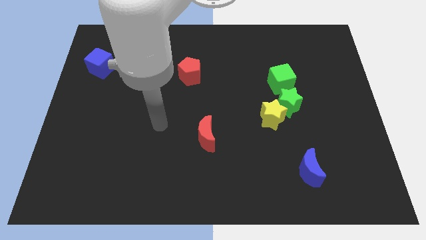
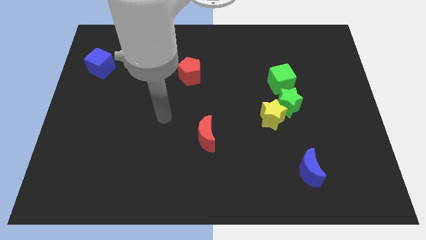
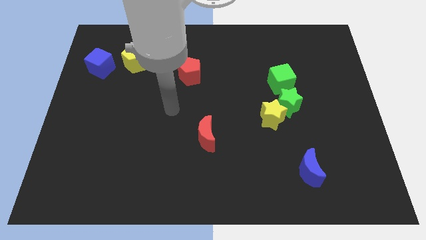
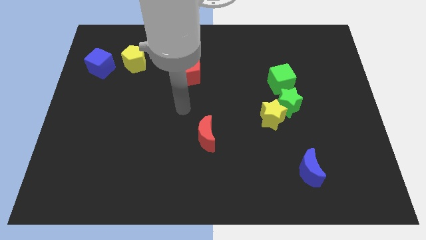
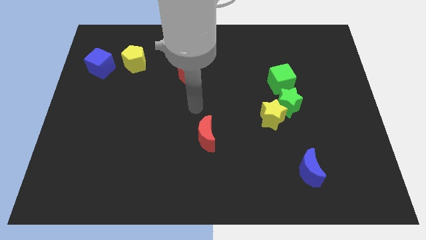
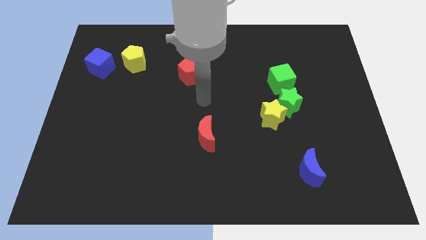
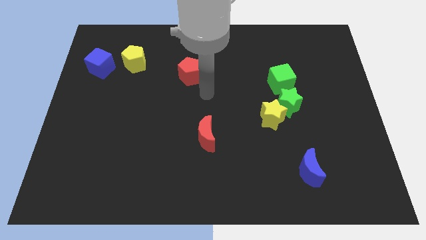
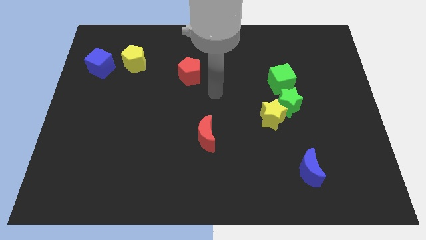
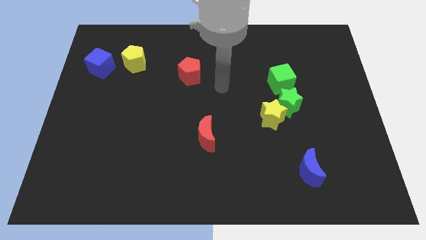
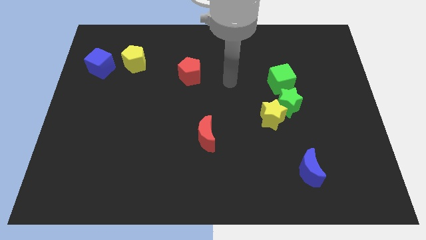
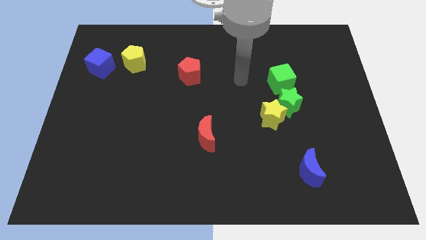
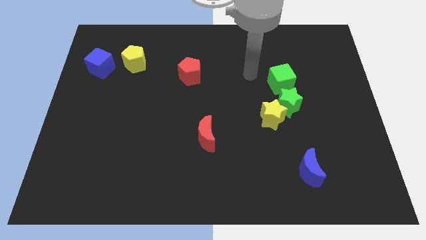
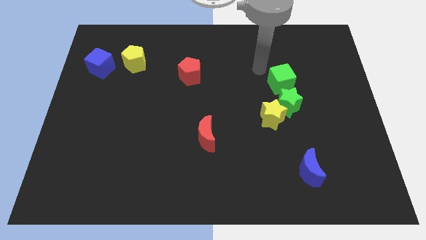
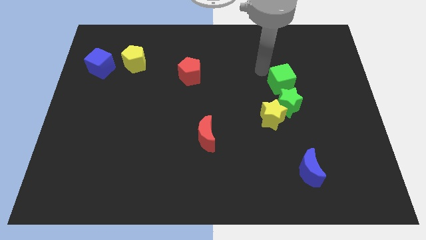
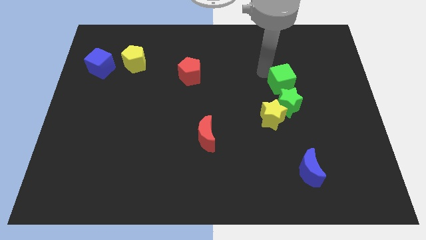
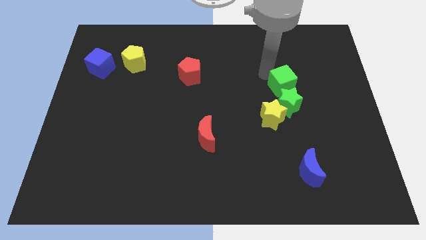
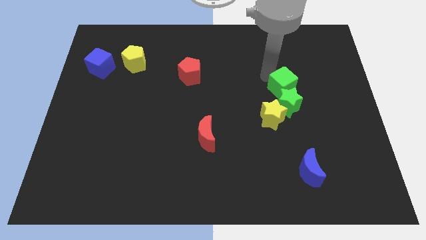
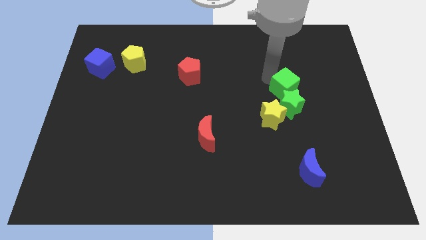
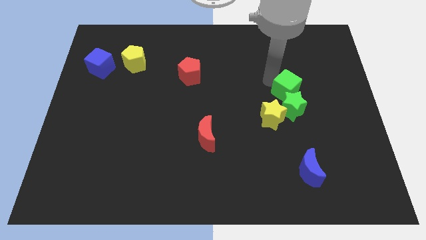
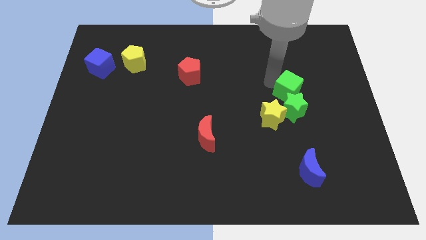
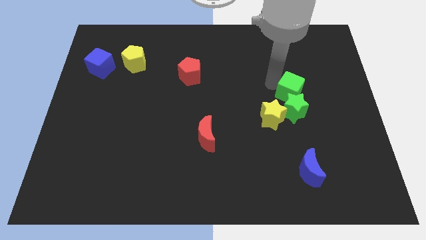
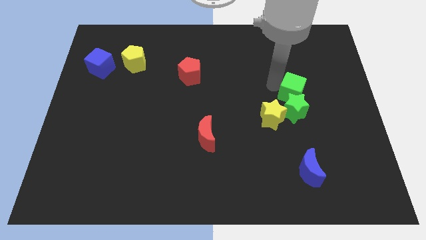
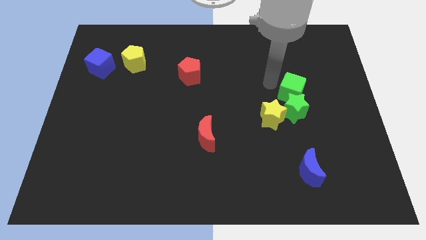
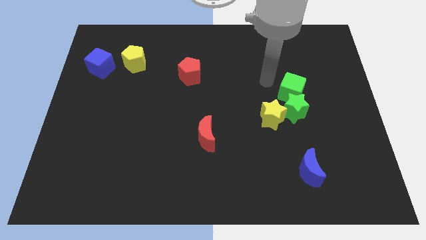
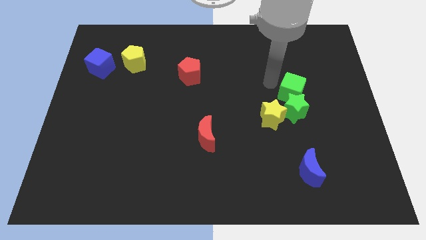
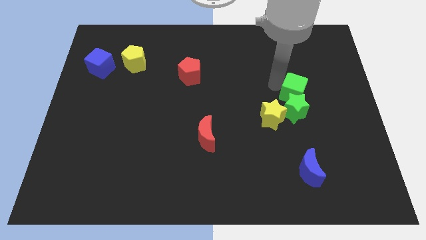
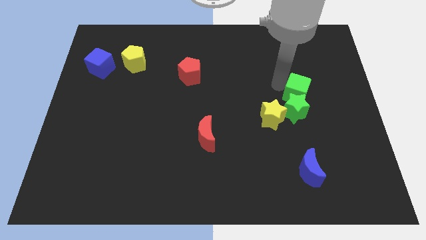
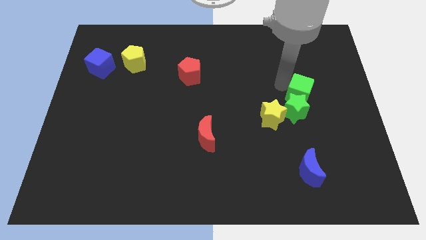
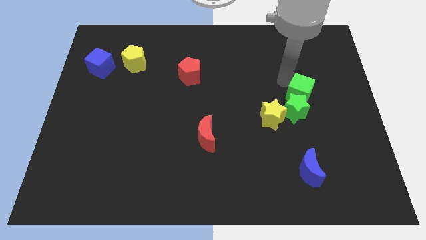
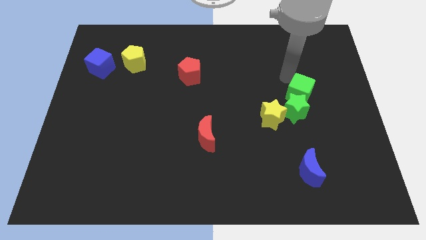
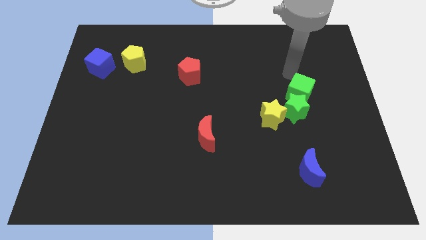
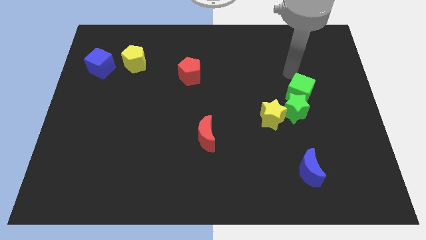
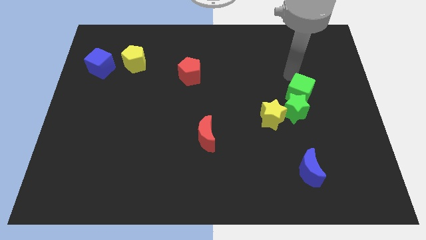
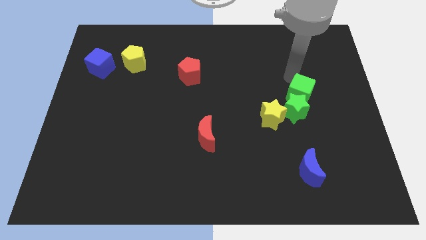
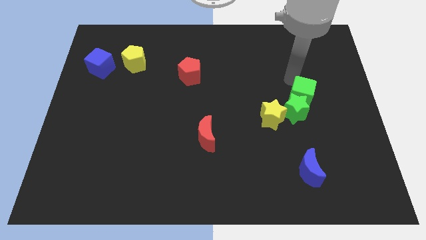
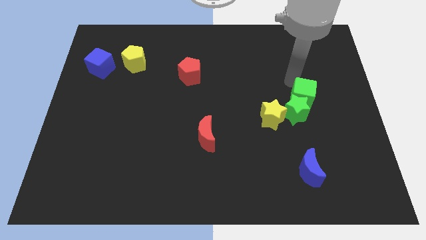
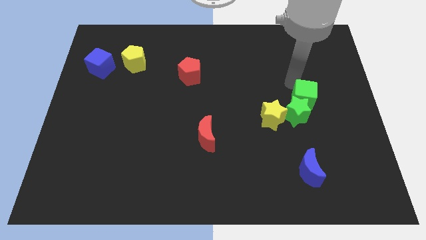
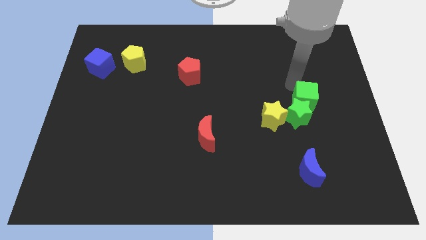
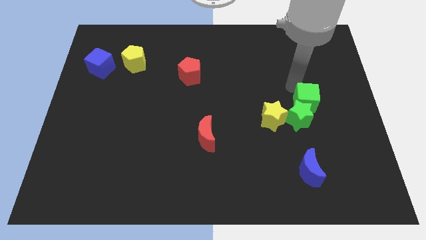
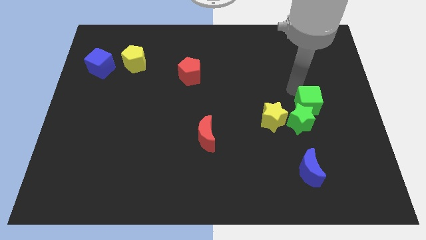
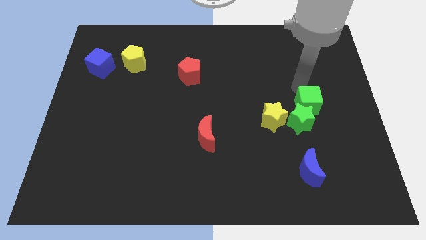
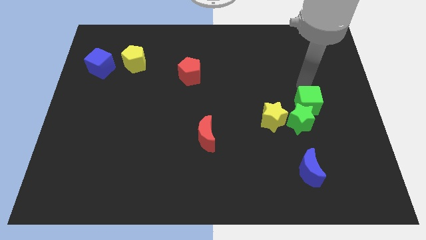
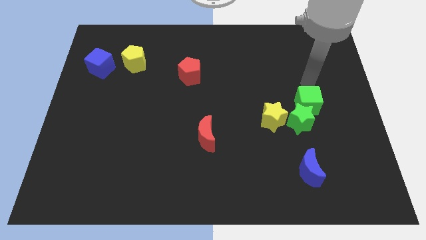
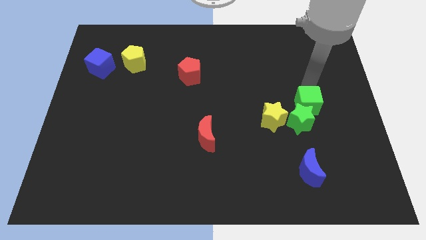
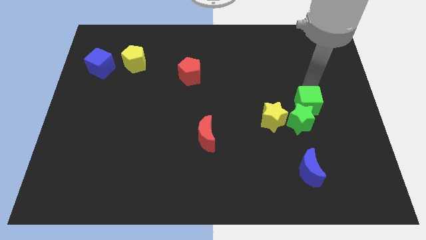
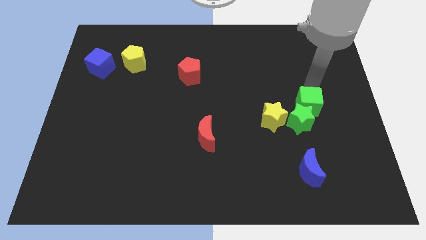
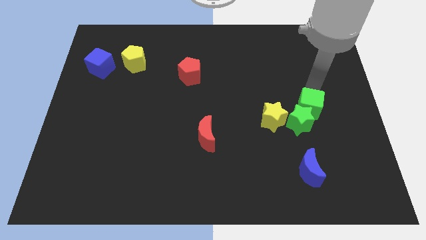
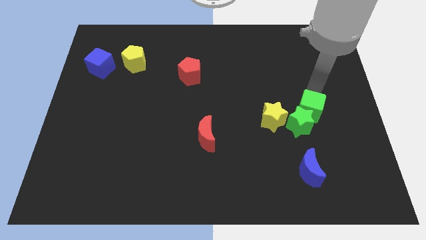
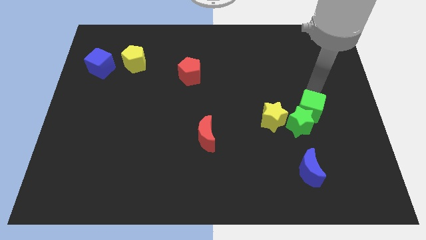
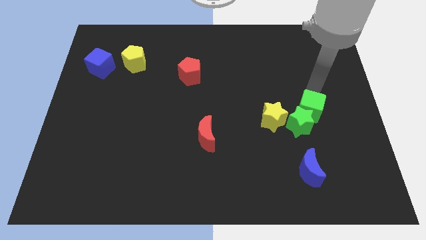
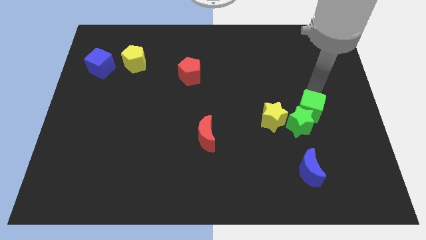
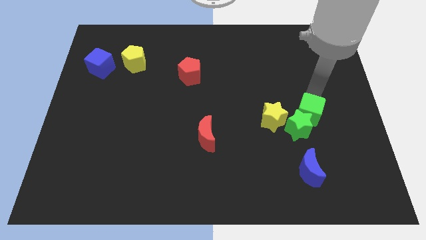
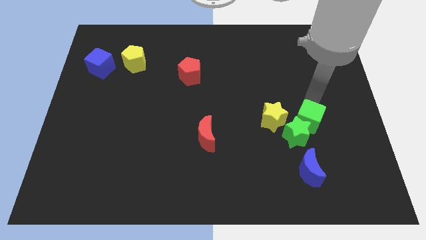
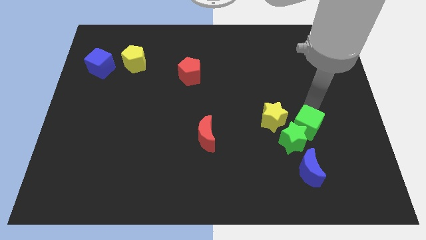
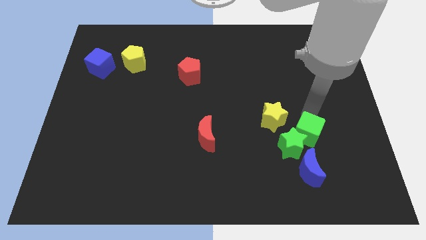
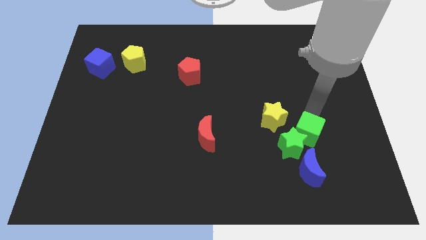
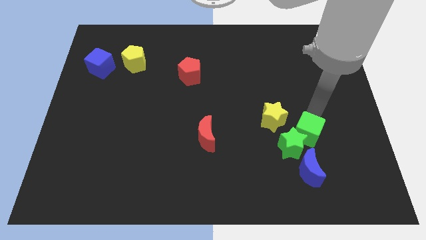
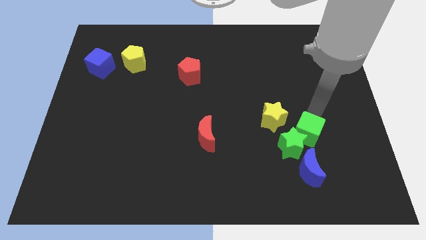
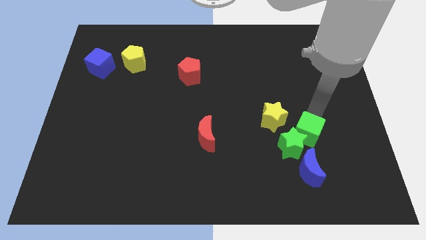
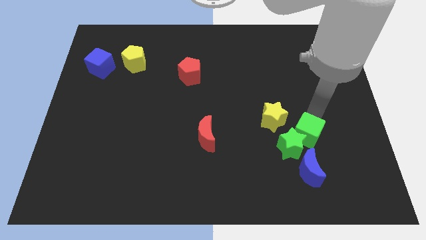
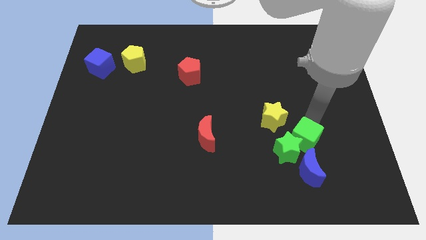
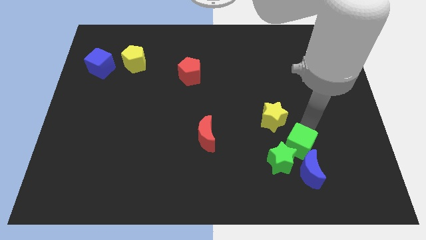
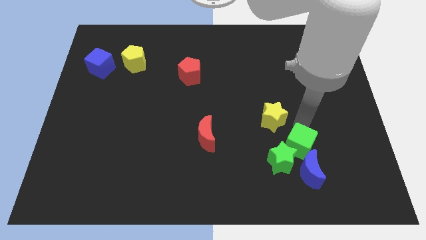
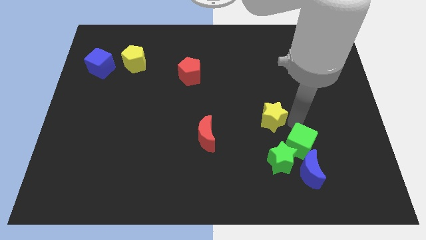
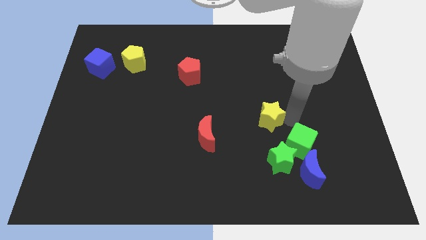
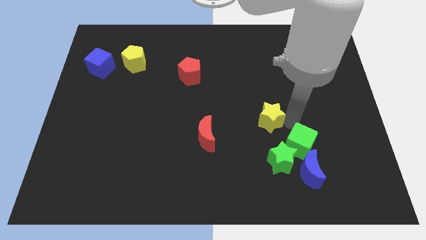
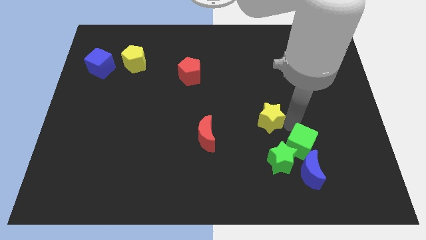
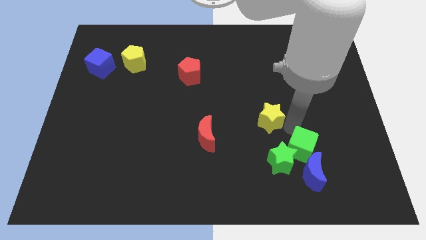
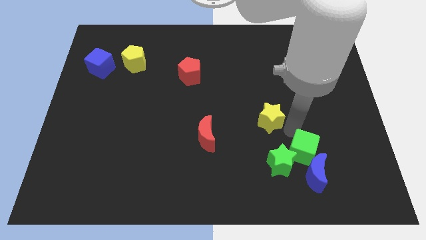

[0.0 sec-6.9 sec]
slide the green cube to the blue moon

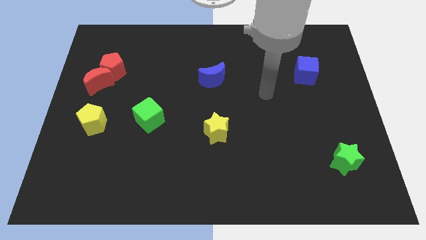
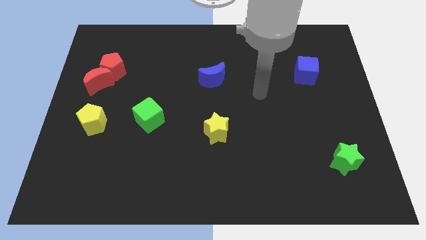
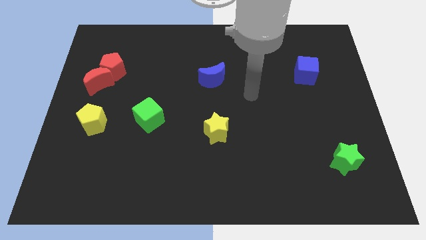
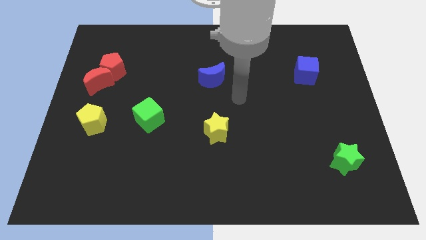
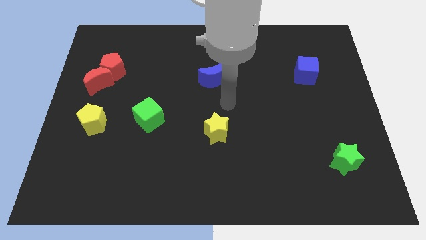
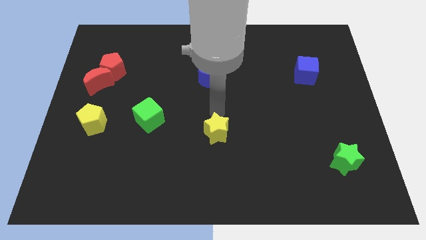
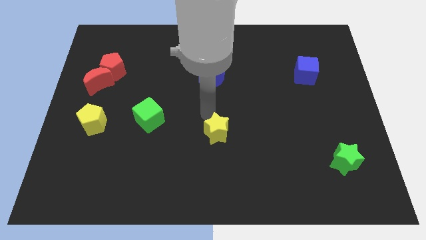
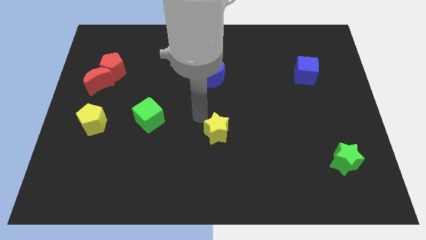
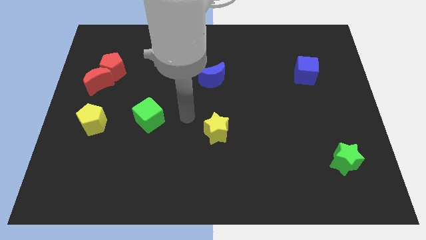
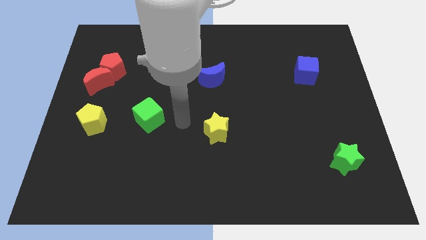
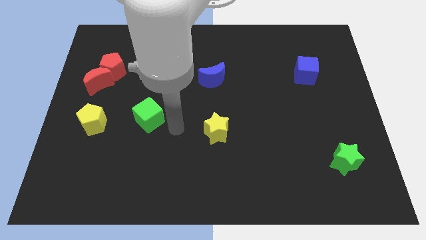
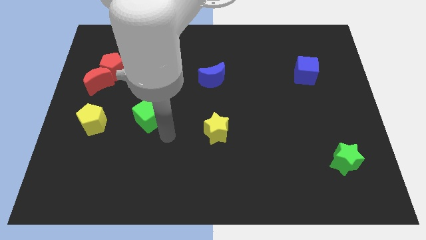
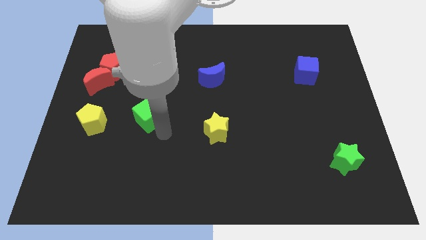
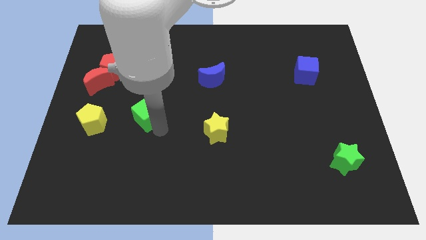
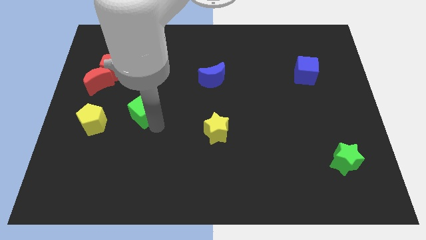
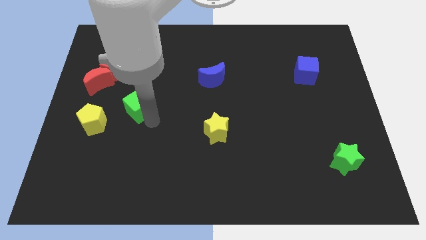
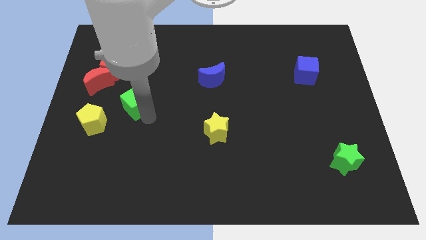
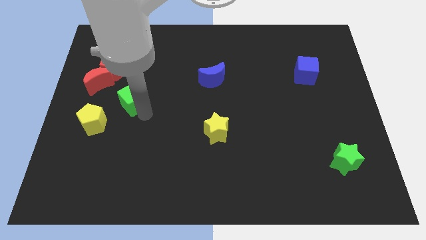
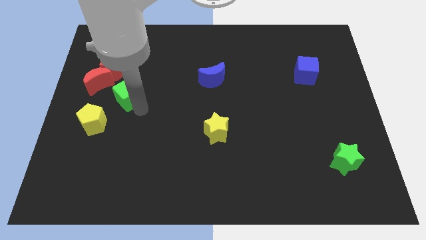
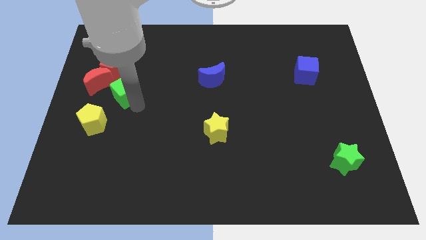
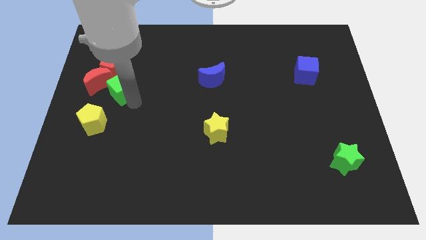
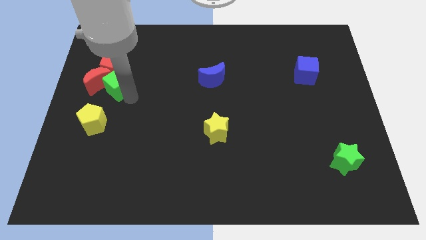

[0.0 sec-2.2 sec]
slide the green cube close to the red moon
